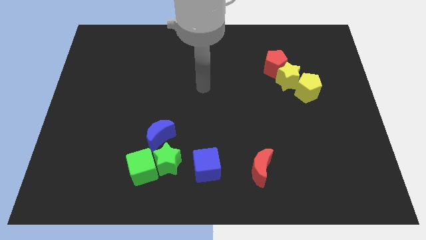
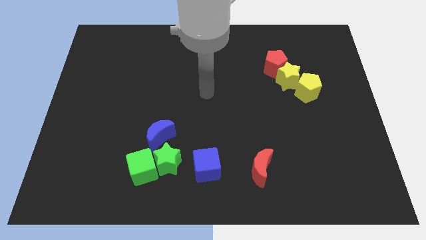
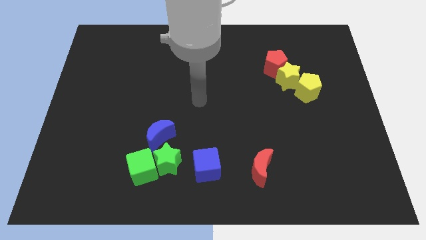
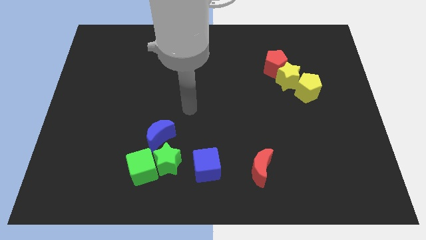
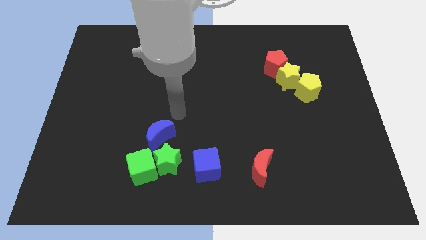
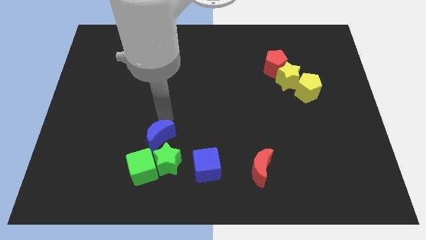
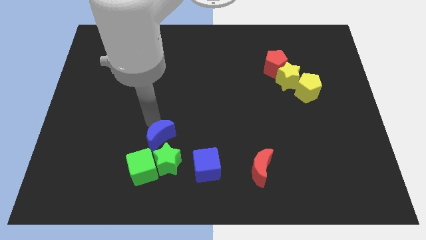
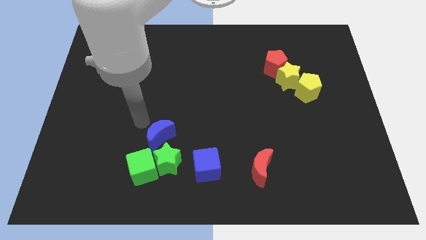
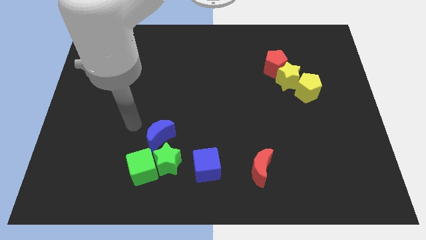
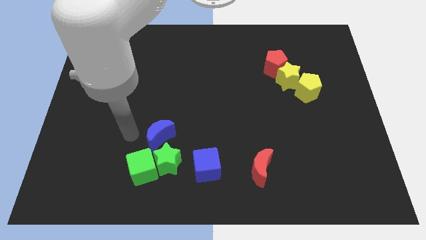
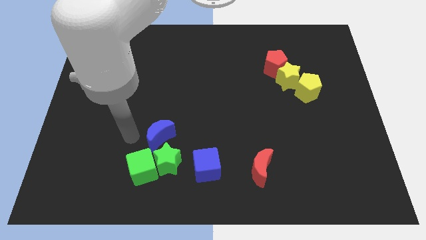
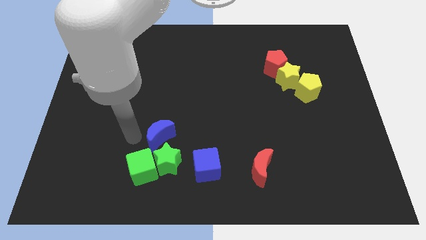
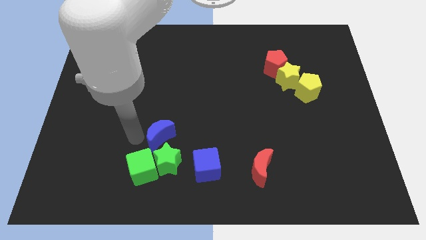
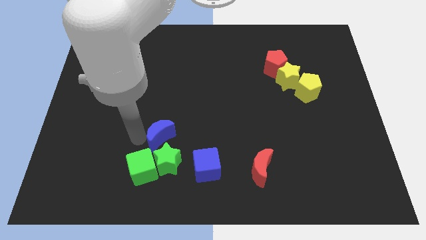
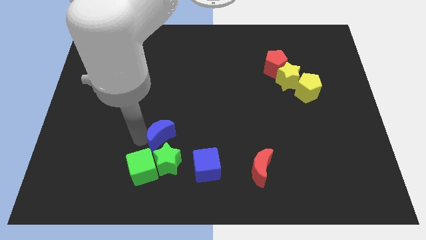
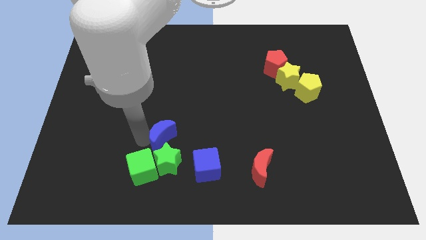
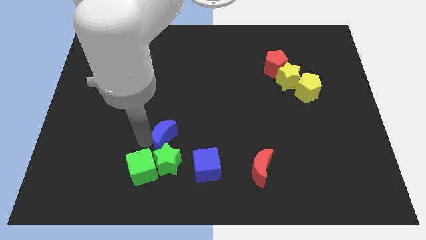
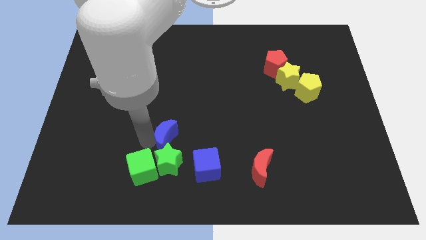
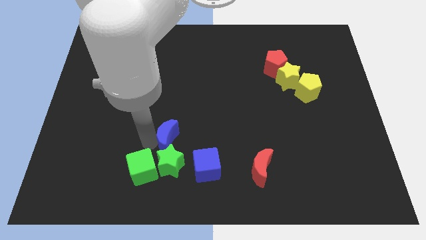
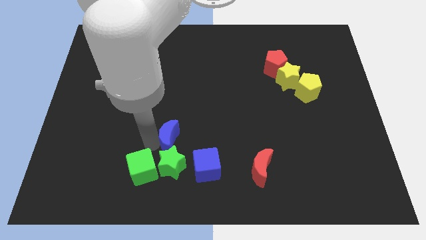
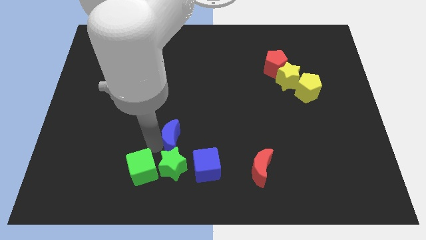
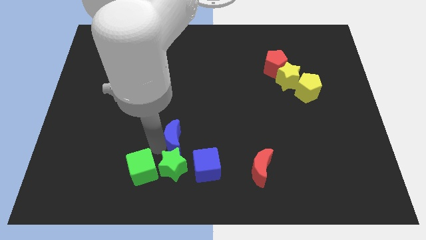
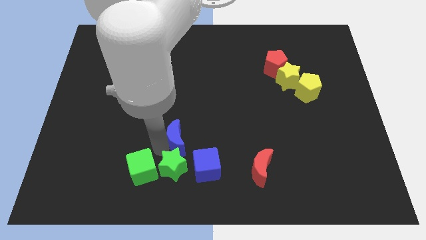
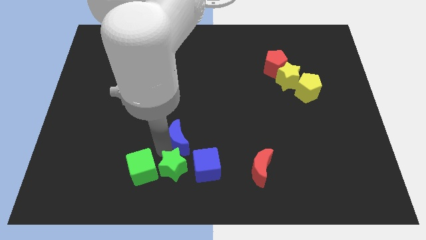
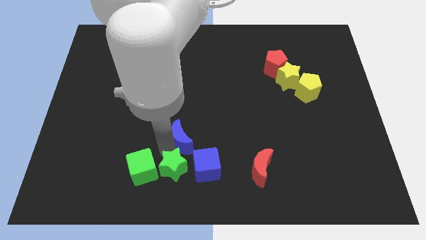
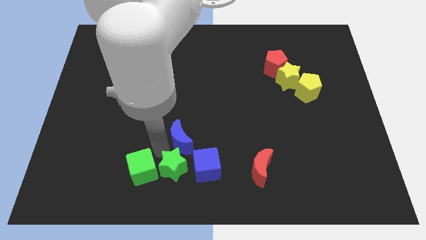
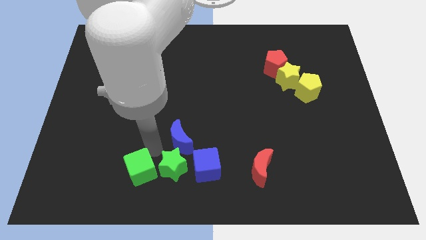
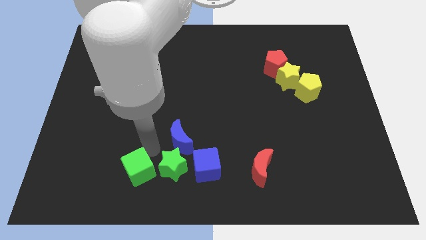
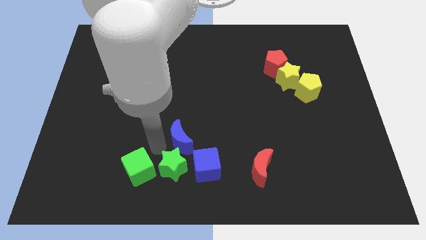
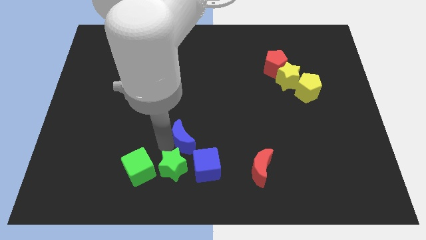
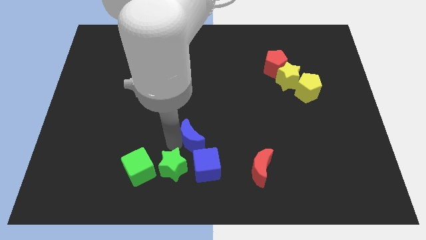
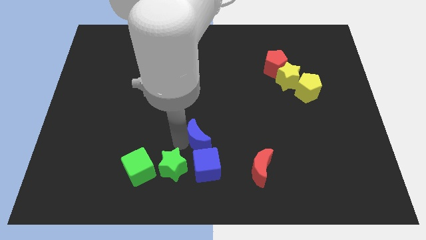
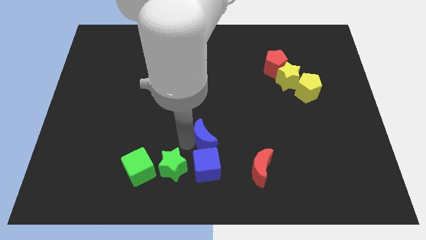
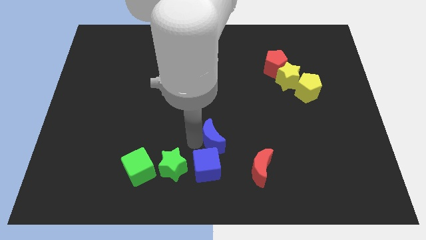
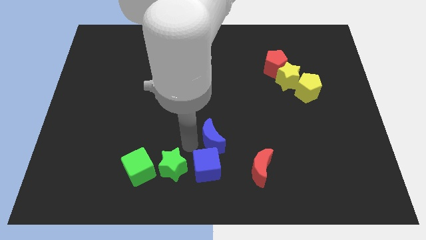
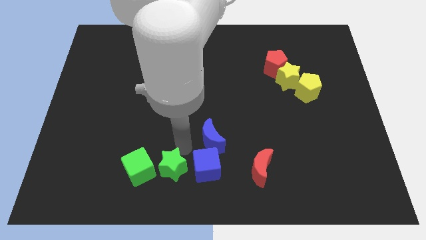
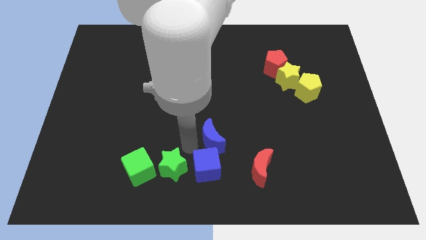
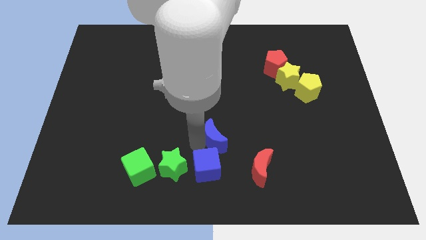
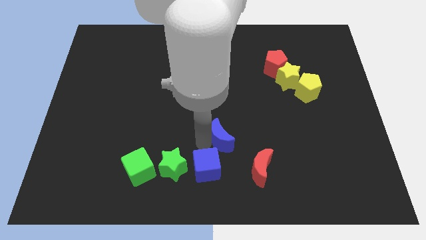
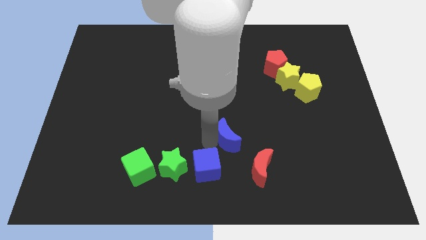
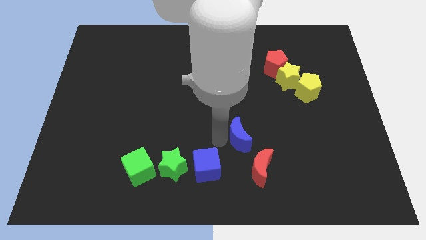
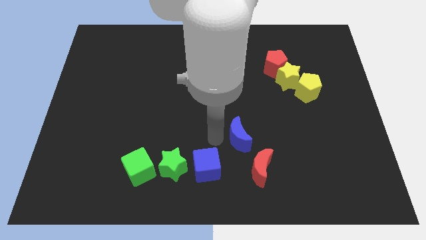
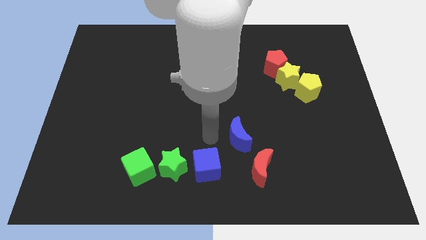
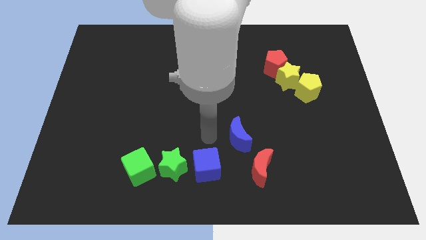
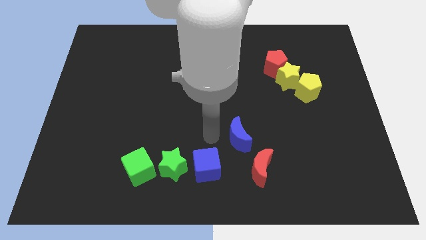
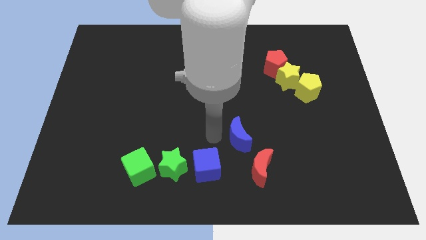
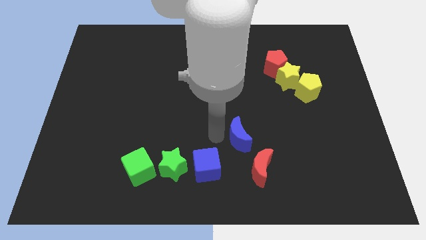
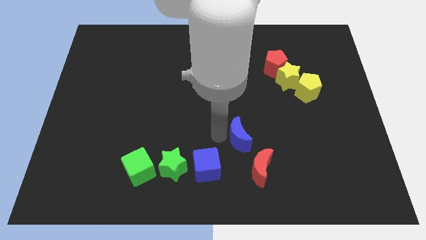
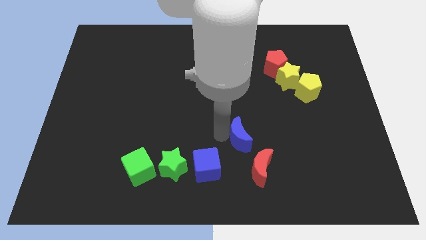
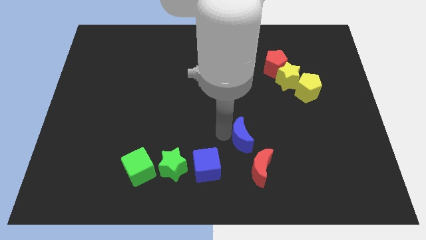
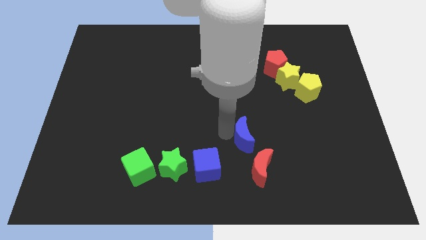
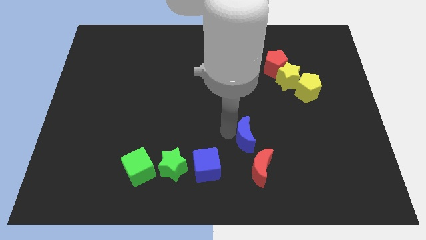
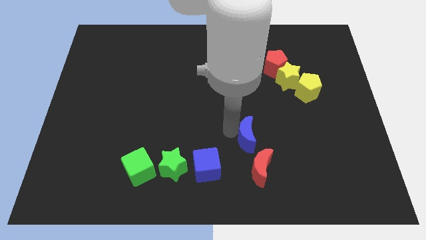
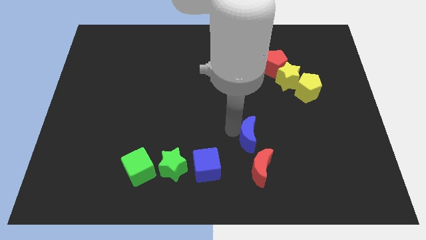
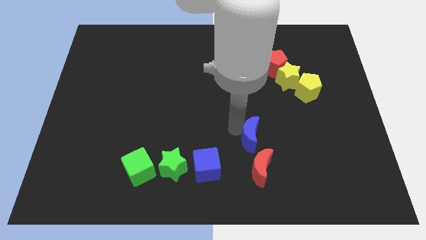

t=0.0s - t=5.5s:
move the blue moon to the right

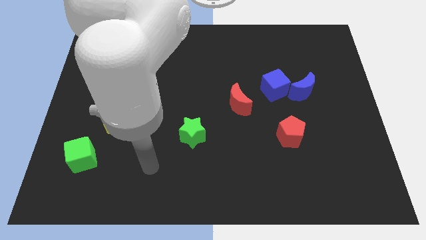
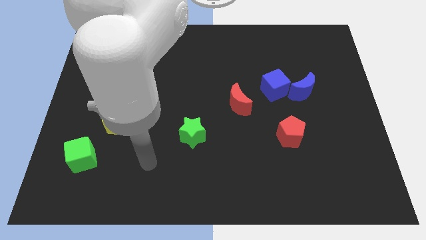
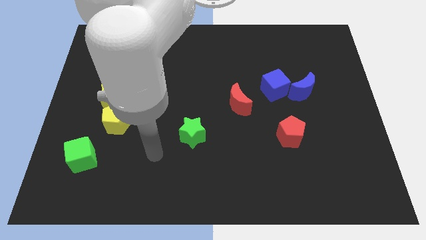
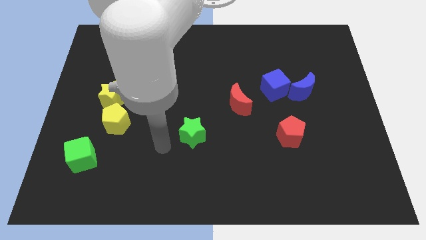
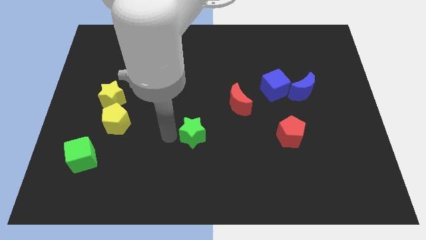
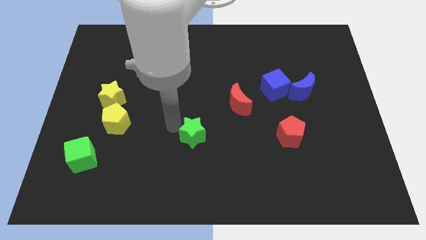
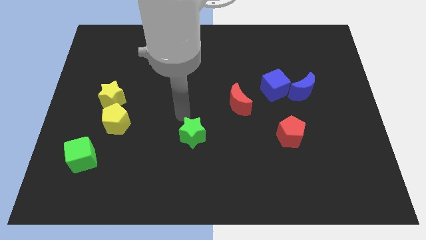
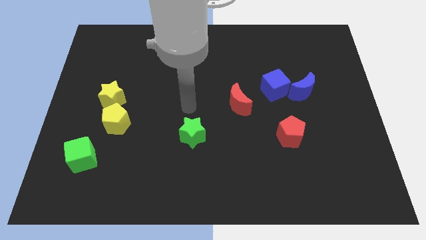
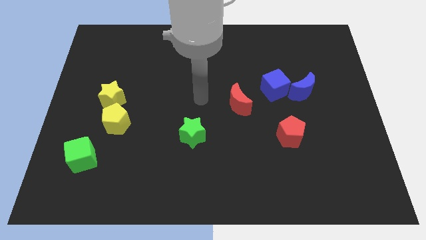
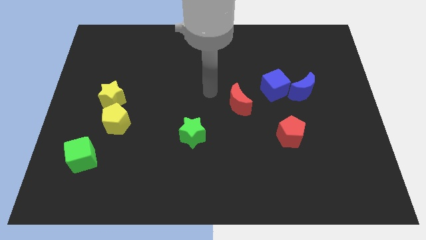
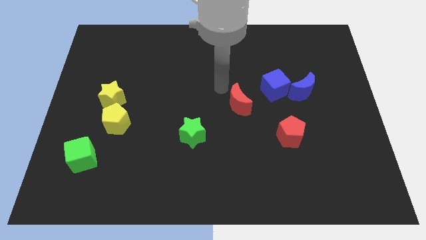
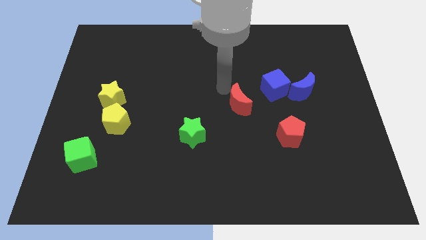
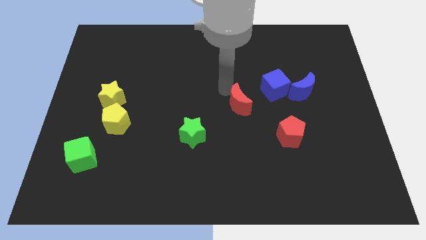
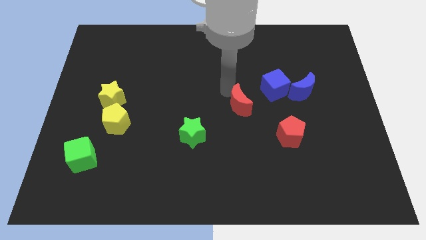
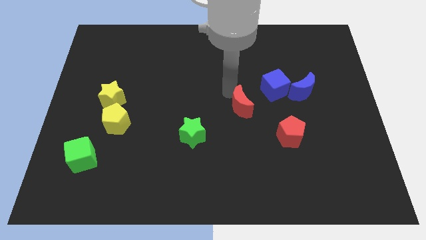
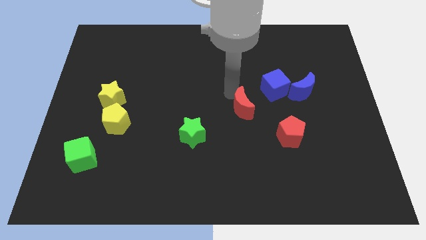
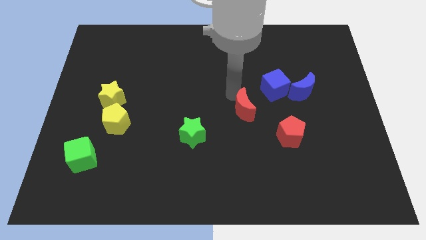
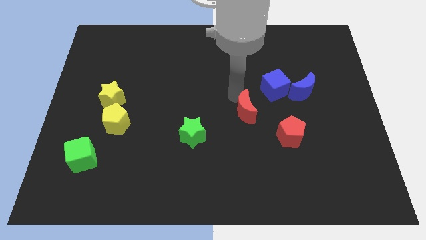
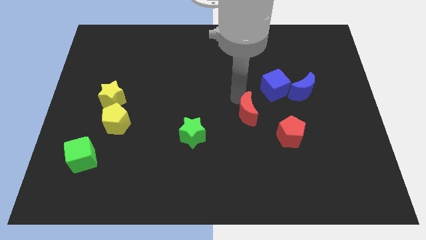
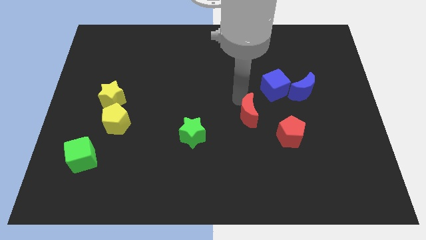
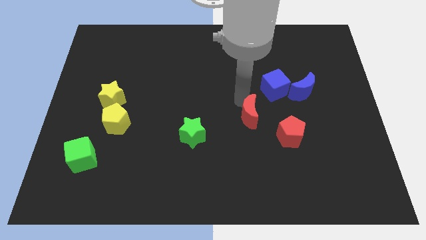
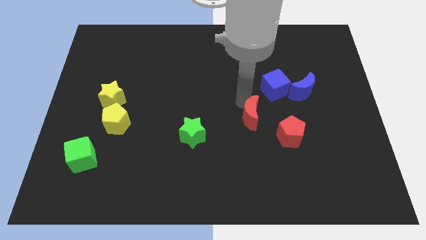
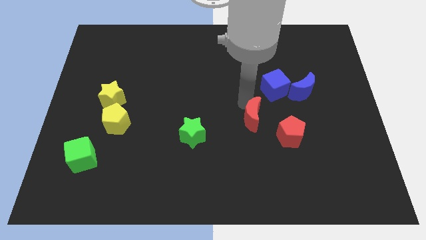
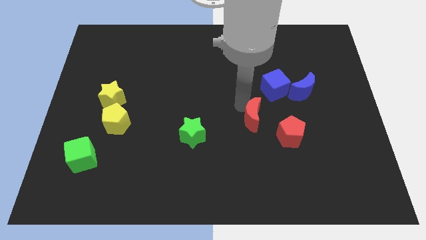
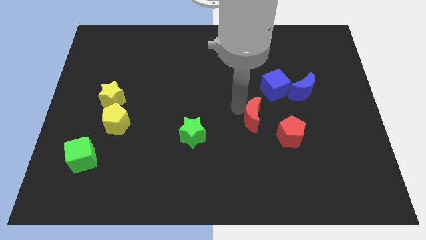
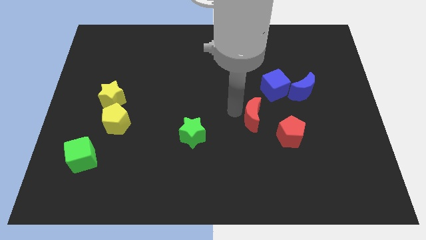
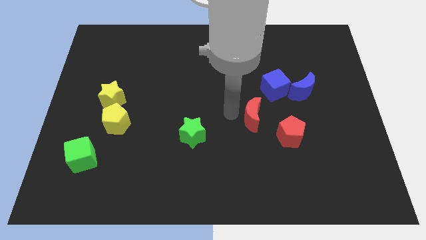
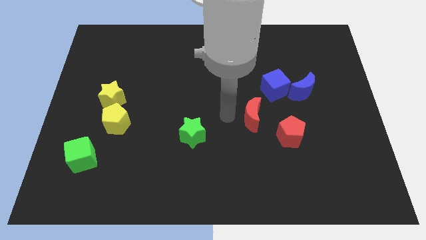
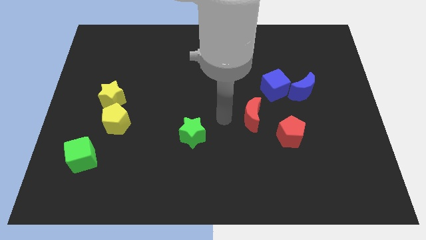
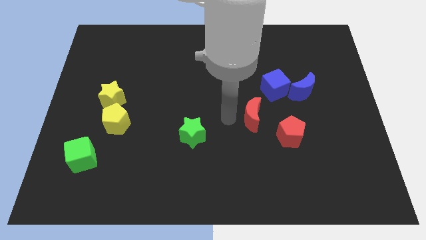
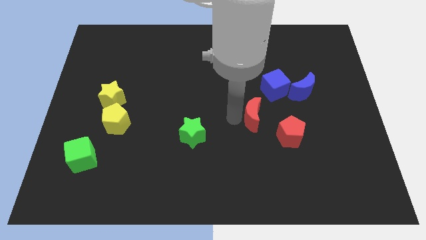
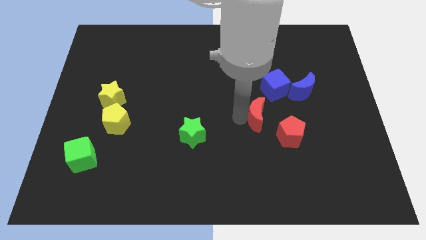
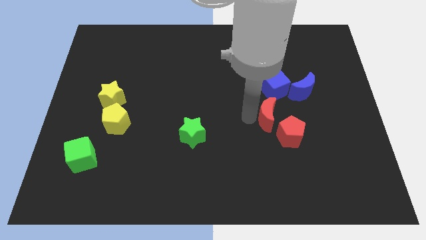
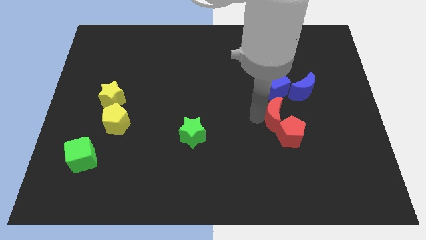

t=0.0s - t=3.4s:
slide the red moon somewhat to the right
